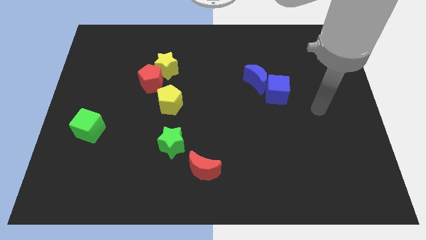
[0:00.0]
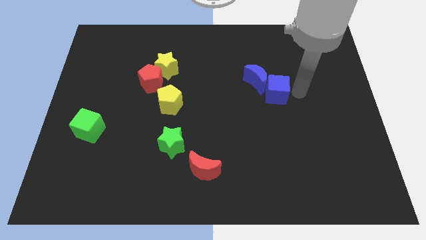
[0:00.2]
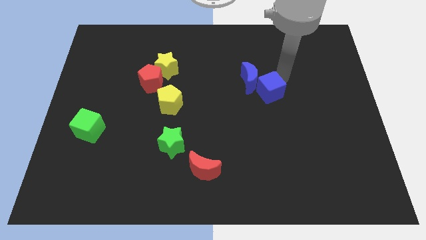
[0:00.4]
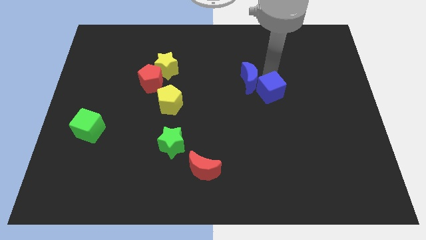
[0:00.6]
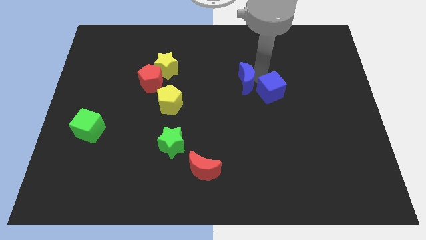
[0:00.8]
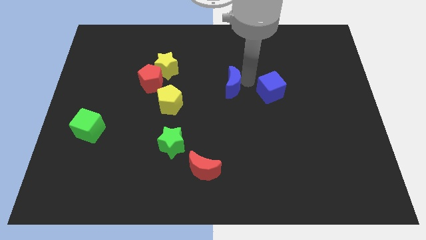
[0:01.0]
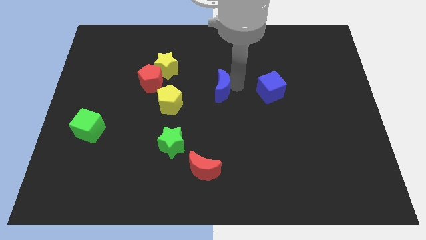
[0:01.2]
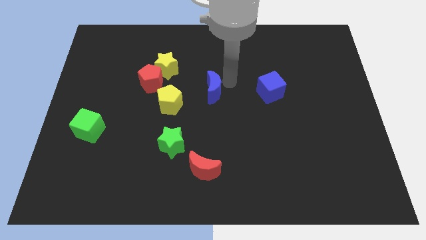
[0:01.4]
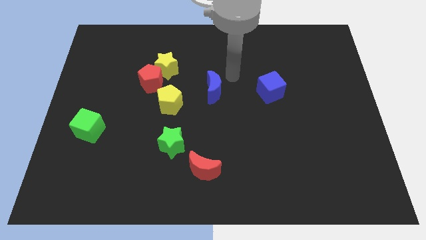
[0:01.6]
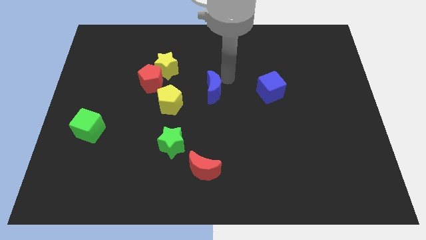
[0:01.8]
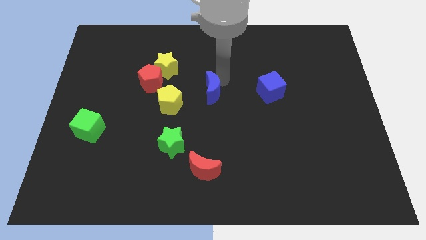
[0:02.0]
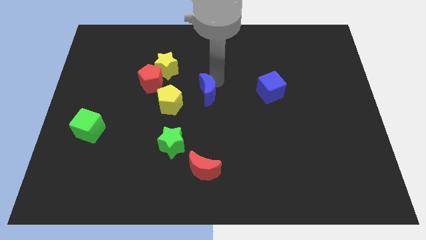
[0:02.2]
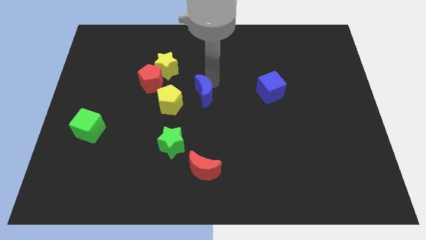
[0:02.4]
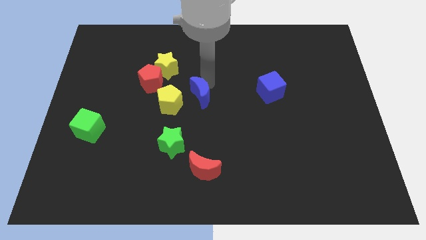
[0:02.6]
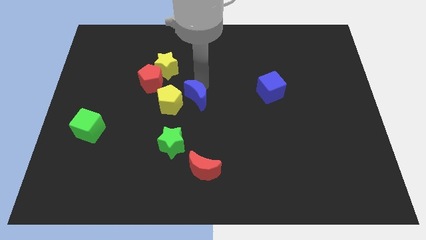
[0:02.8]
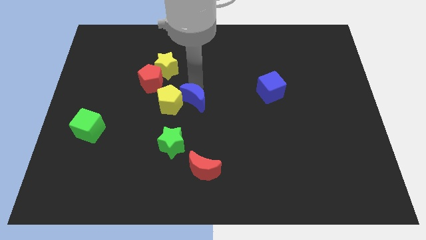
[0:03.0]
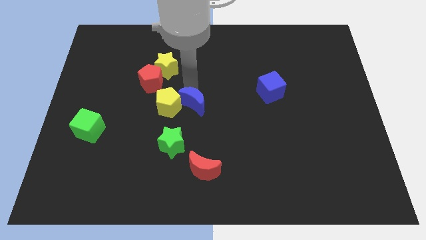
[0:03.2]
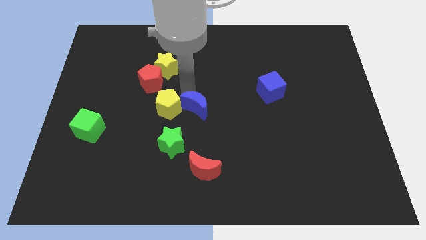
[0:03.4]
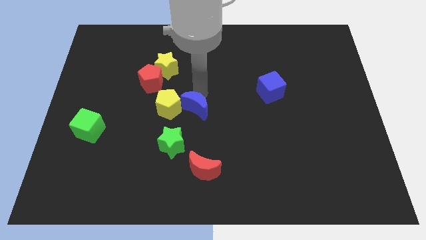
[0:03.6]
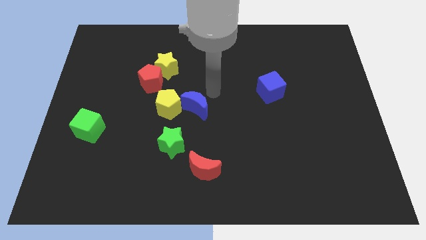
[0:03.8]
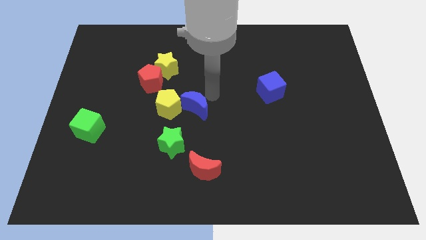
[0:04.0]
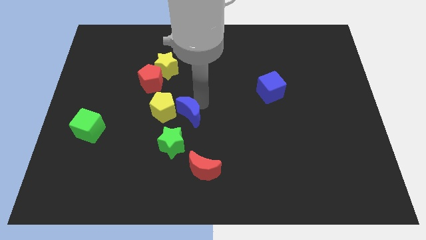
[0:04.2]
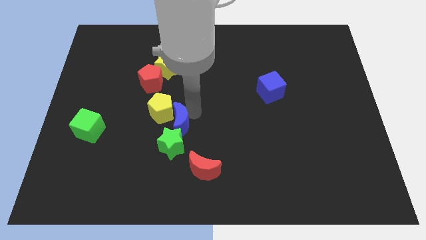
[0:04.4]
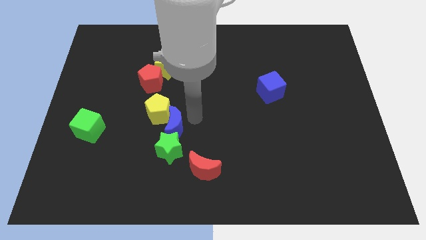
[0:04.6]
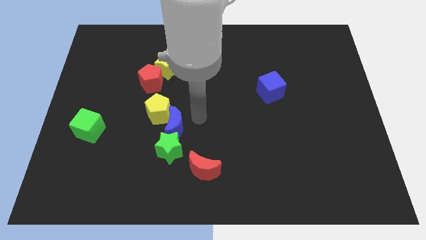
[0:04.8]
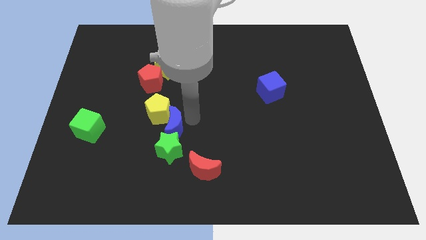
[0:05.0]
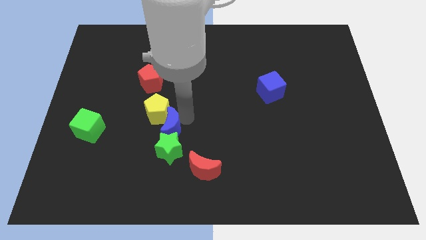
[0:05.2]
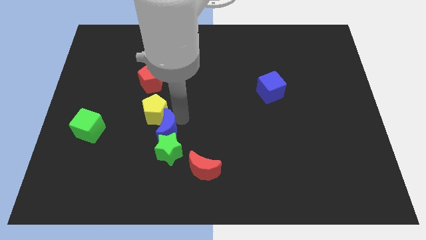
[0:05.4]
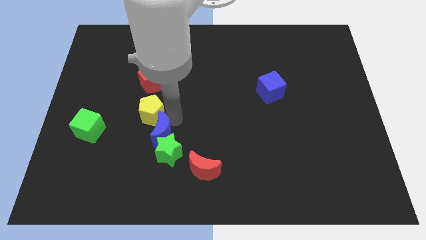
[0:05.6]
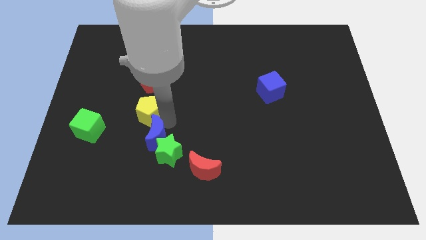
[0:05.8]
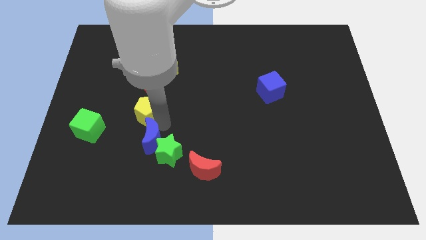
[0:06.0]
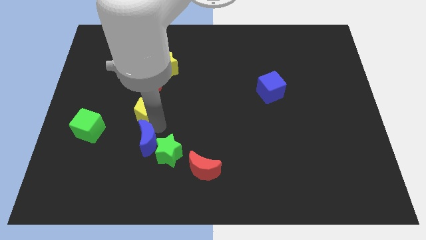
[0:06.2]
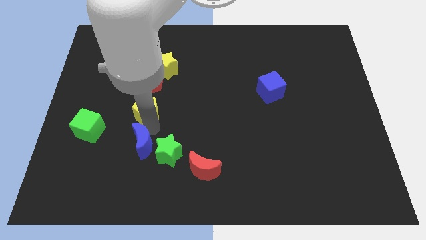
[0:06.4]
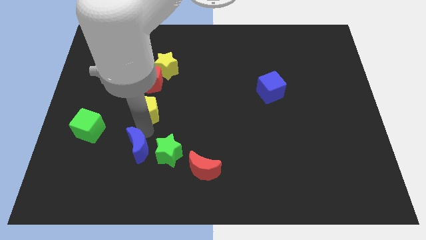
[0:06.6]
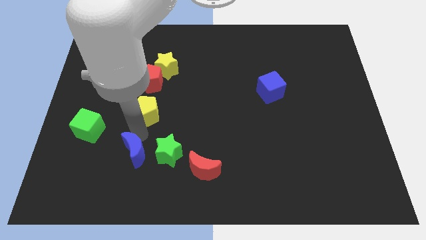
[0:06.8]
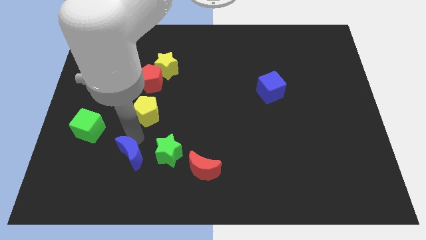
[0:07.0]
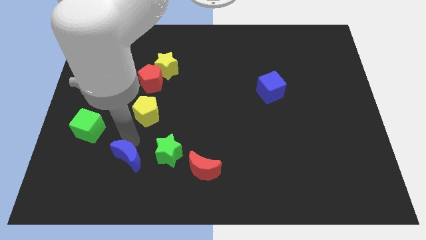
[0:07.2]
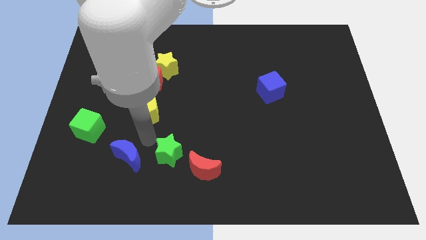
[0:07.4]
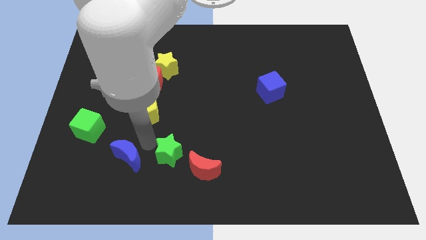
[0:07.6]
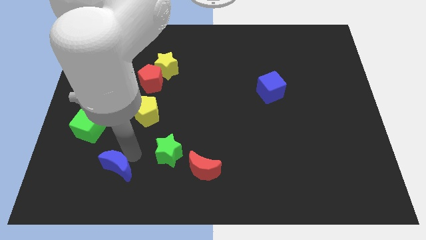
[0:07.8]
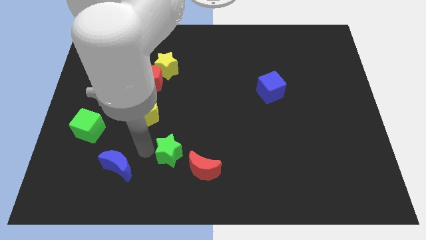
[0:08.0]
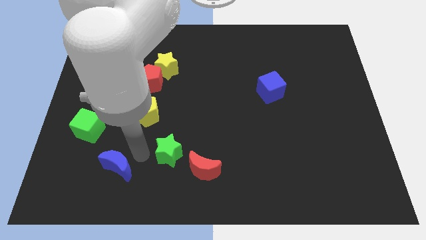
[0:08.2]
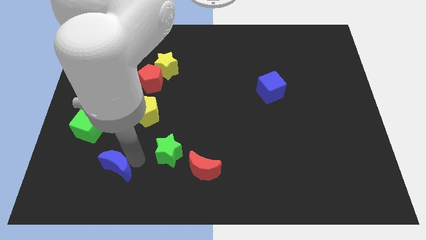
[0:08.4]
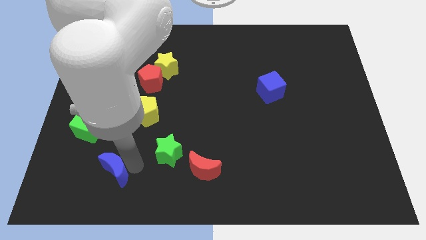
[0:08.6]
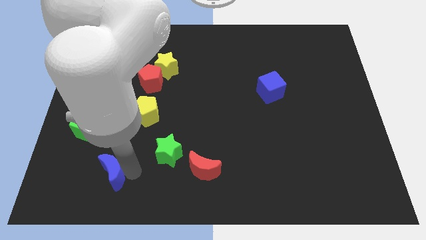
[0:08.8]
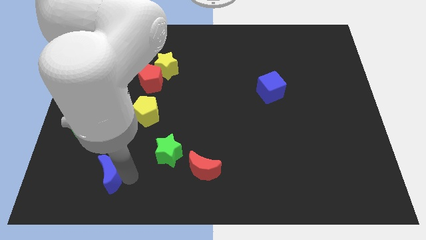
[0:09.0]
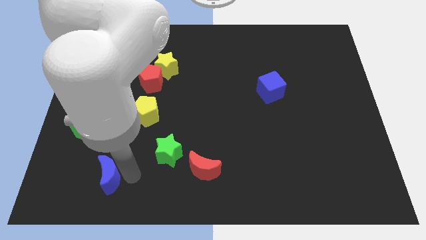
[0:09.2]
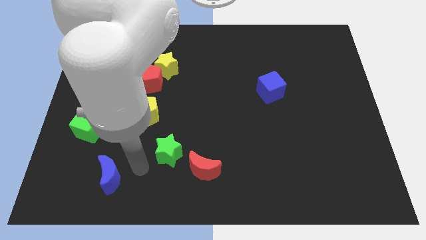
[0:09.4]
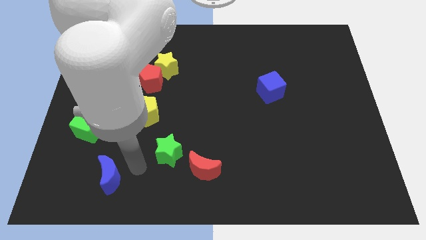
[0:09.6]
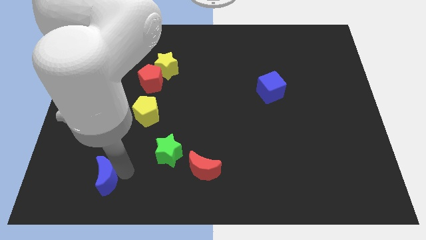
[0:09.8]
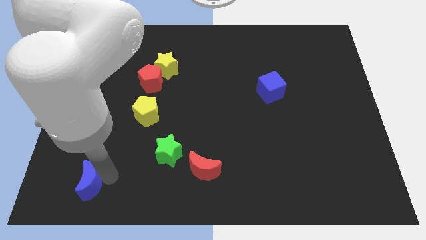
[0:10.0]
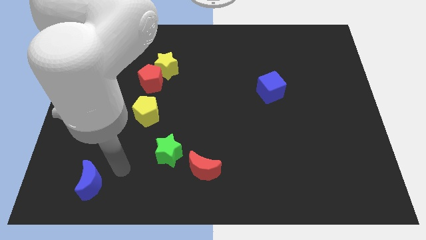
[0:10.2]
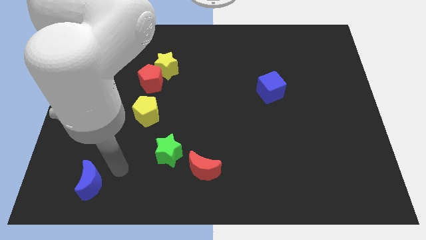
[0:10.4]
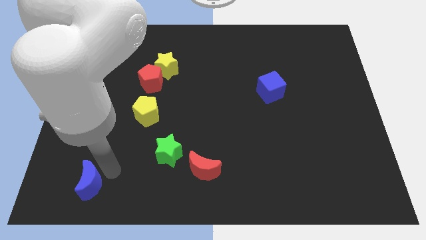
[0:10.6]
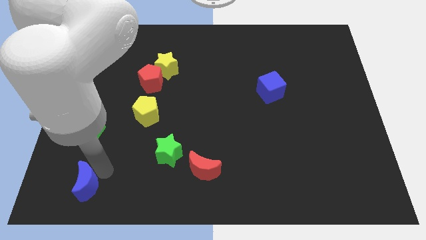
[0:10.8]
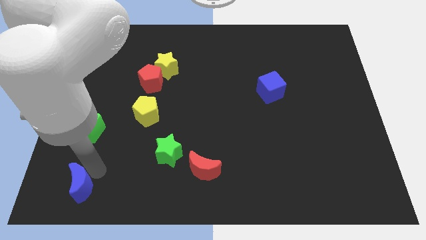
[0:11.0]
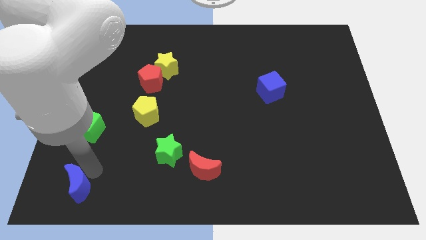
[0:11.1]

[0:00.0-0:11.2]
slide the blue moon to the bottom left of the board
